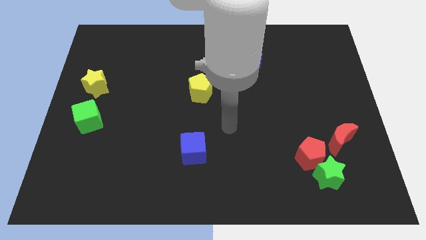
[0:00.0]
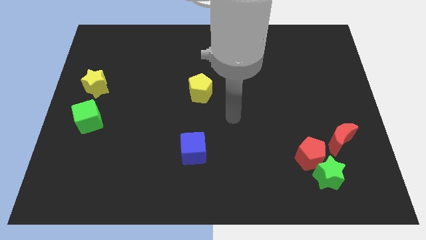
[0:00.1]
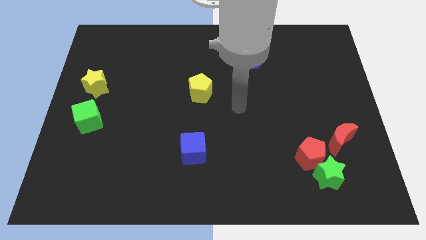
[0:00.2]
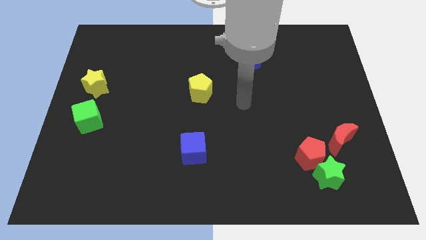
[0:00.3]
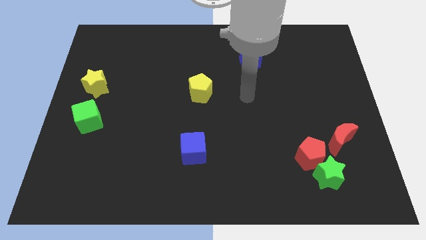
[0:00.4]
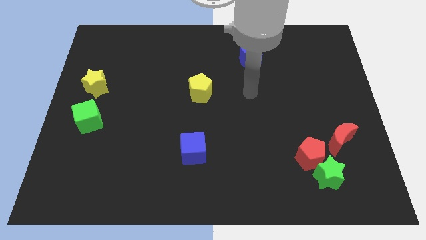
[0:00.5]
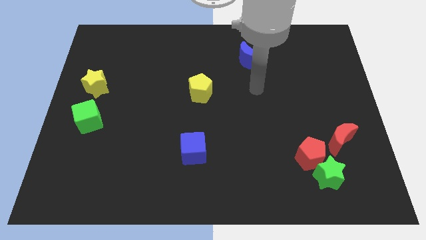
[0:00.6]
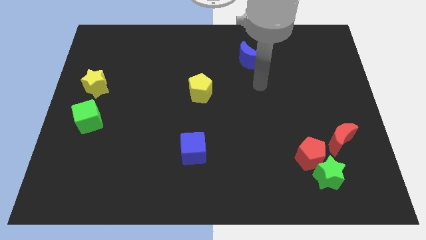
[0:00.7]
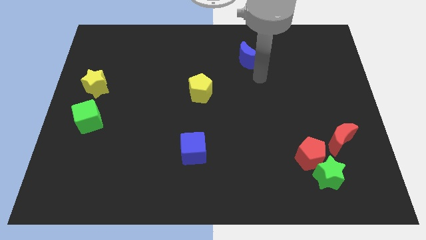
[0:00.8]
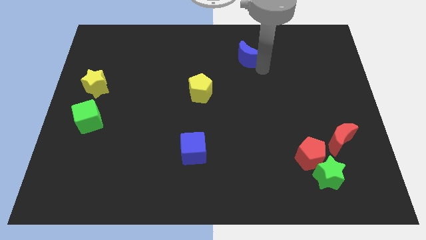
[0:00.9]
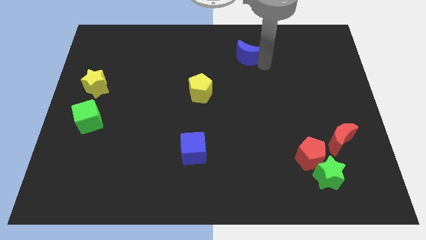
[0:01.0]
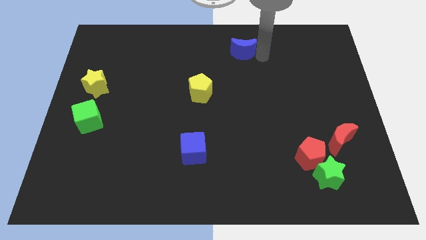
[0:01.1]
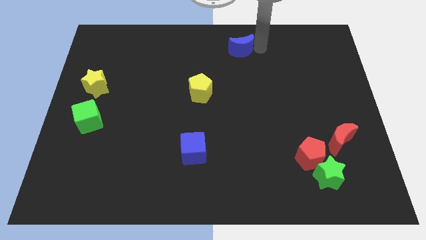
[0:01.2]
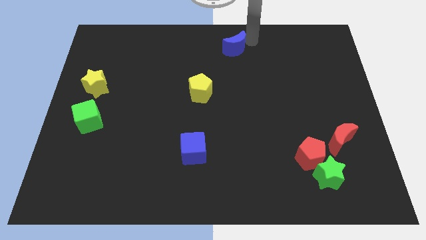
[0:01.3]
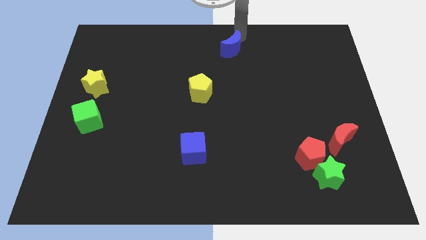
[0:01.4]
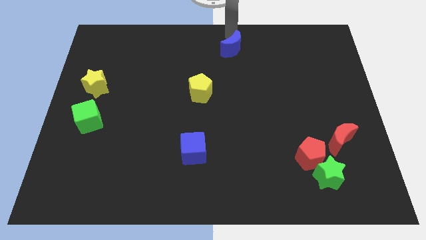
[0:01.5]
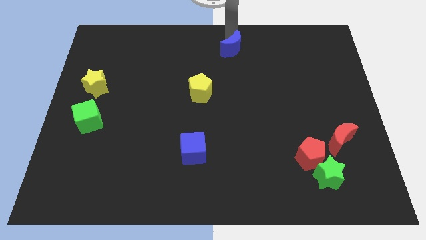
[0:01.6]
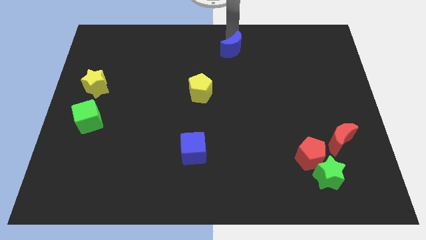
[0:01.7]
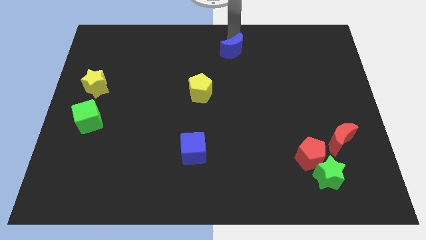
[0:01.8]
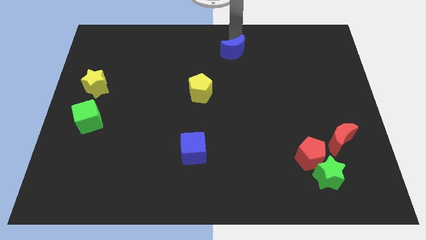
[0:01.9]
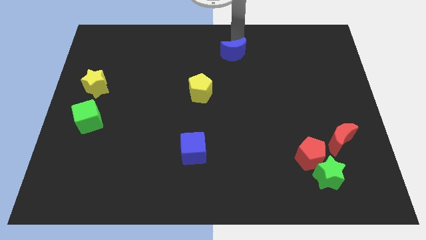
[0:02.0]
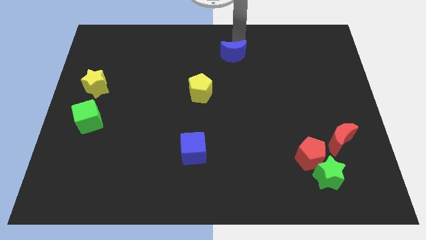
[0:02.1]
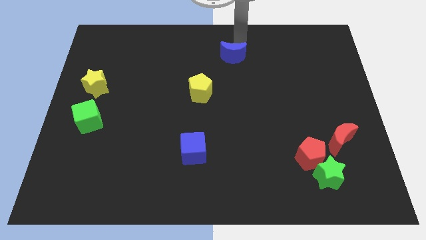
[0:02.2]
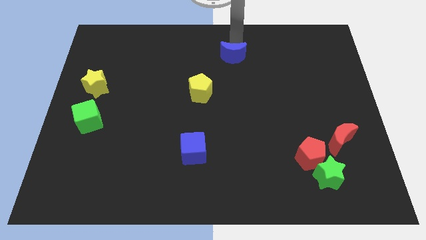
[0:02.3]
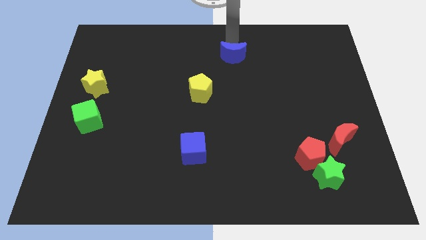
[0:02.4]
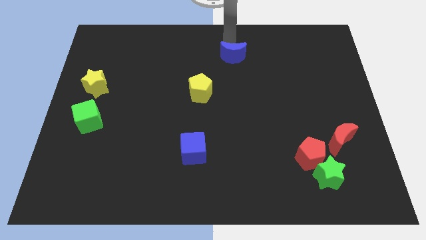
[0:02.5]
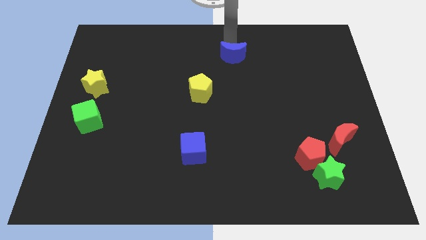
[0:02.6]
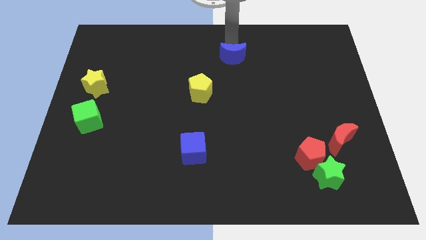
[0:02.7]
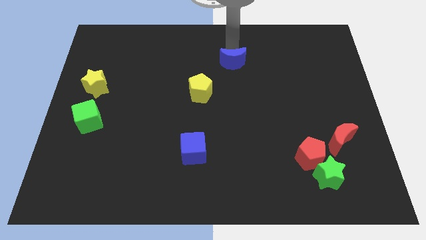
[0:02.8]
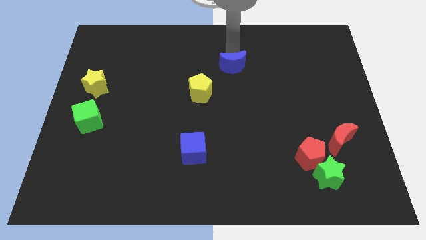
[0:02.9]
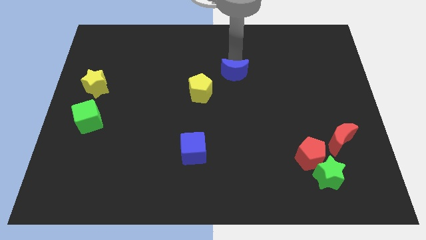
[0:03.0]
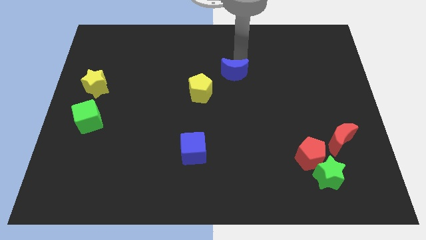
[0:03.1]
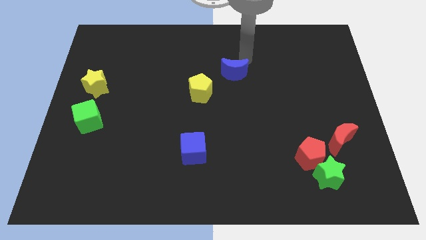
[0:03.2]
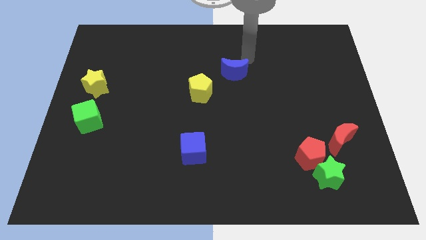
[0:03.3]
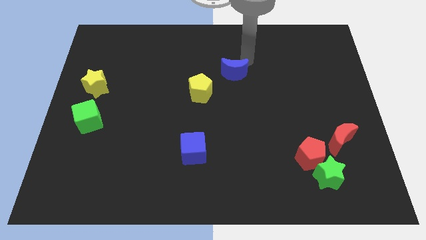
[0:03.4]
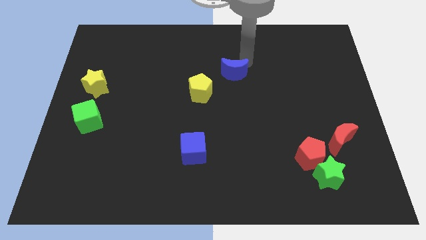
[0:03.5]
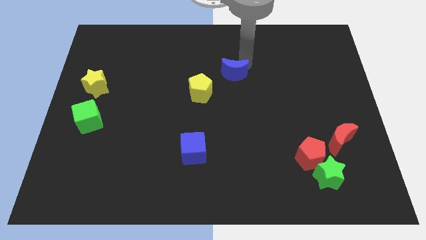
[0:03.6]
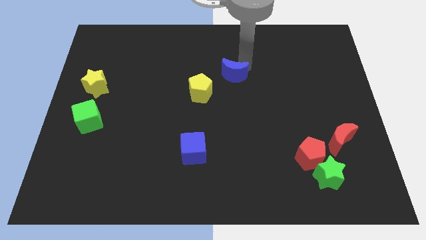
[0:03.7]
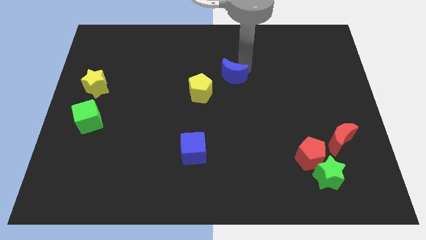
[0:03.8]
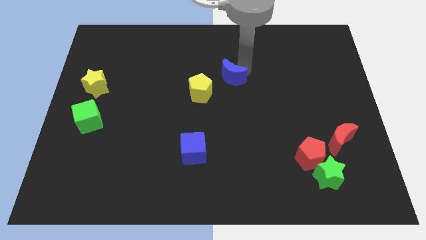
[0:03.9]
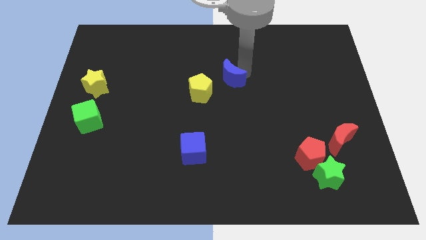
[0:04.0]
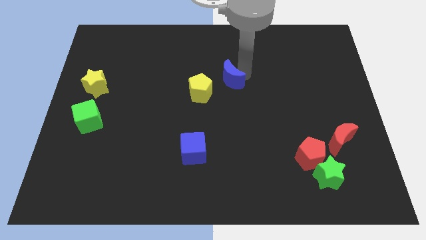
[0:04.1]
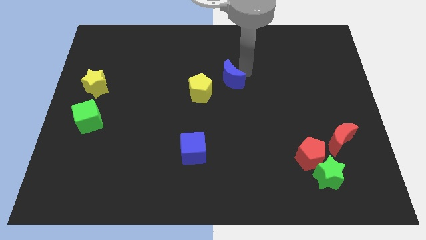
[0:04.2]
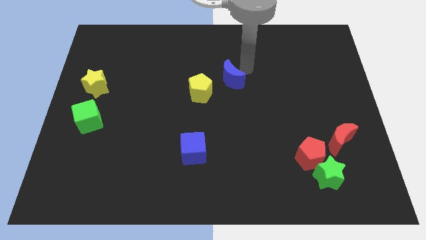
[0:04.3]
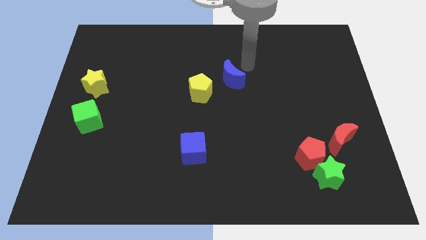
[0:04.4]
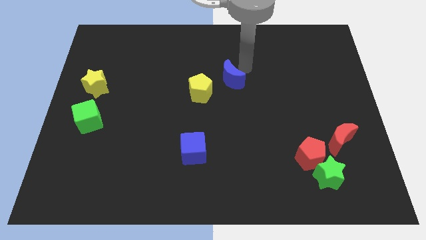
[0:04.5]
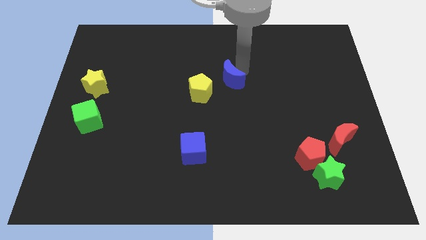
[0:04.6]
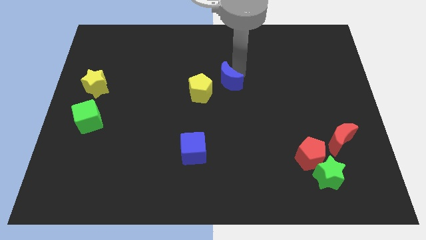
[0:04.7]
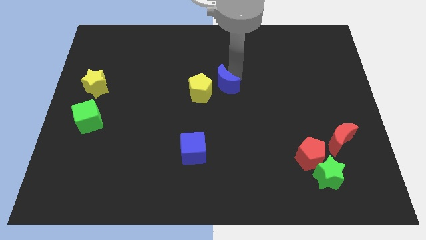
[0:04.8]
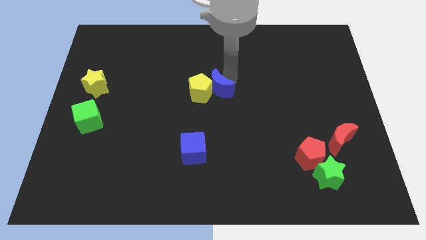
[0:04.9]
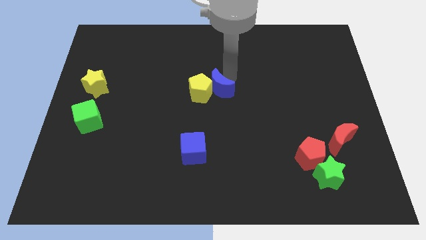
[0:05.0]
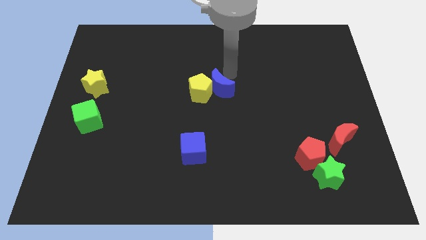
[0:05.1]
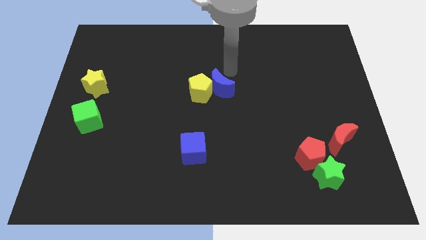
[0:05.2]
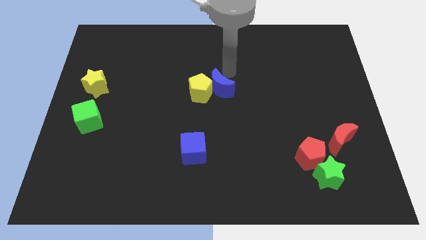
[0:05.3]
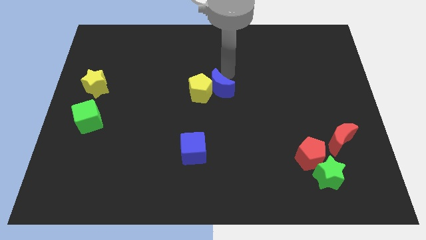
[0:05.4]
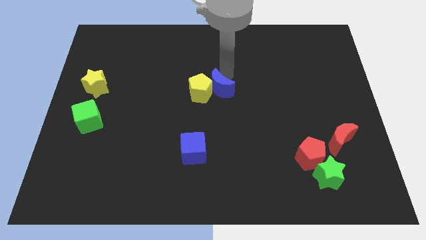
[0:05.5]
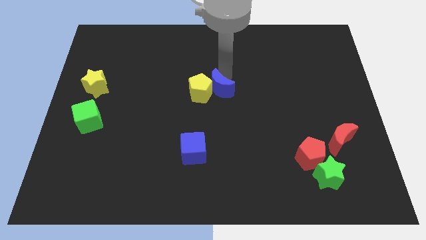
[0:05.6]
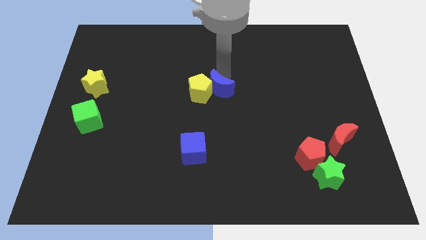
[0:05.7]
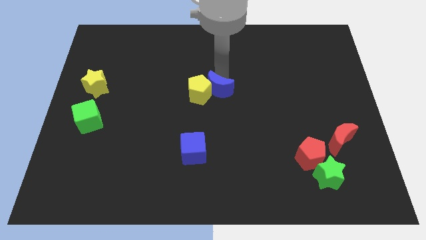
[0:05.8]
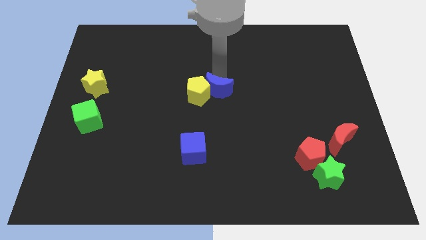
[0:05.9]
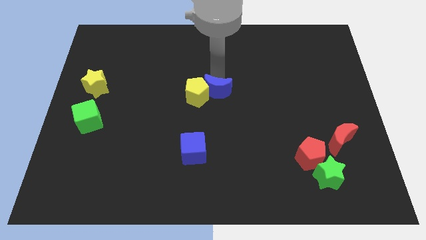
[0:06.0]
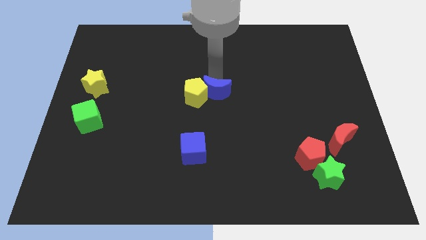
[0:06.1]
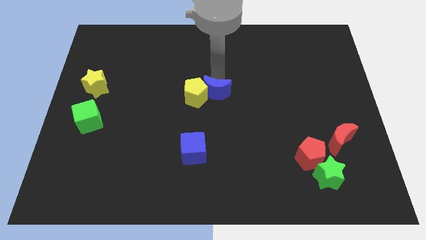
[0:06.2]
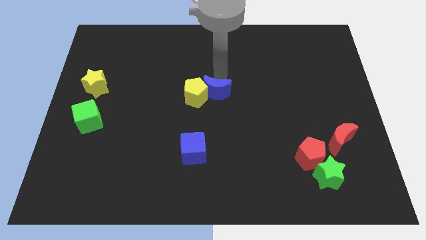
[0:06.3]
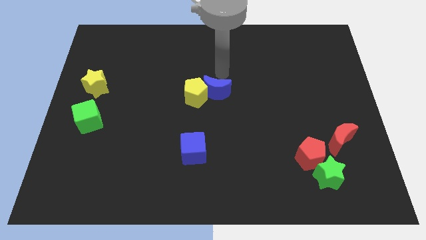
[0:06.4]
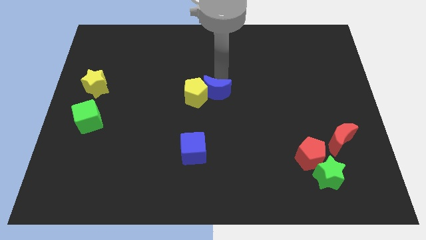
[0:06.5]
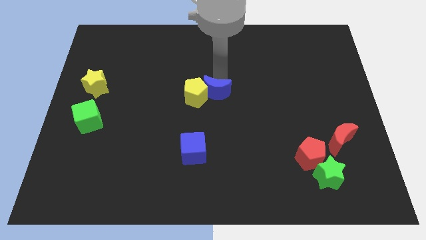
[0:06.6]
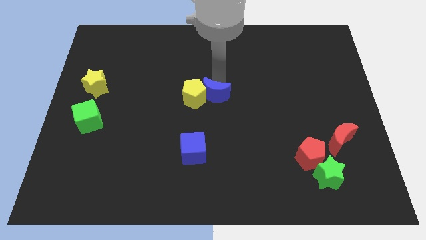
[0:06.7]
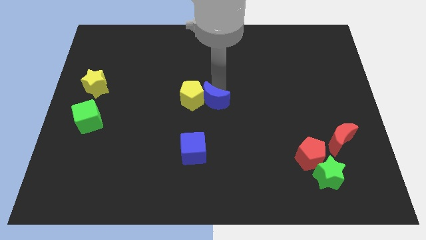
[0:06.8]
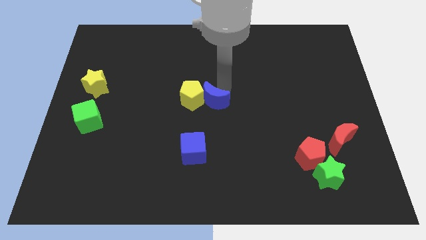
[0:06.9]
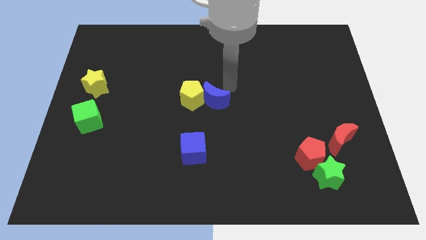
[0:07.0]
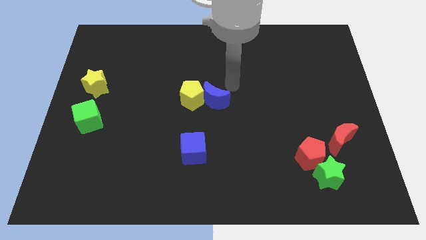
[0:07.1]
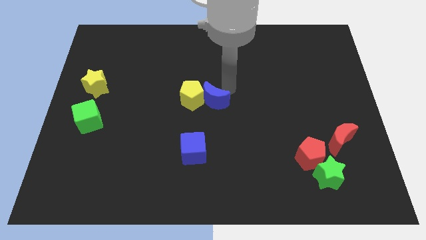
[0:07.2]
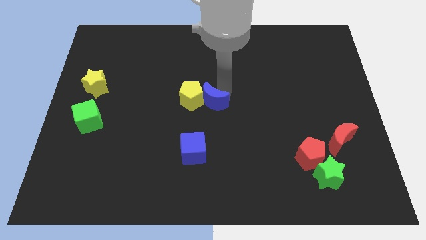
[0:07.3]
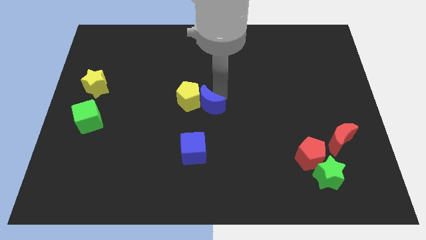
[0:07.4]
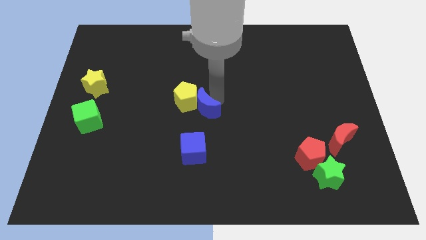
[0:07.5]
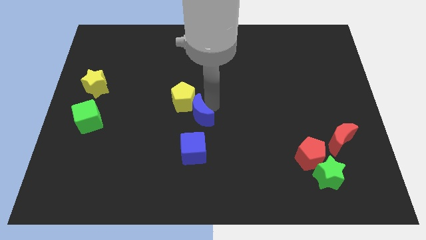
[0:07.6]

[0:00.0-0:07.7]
move the blue moon downwards and to the left
